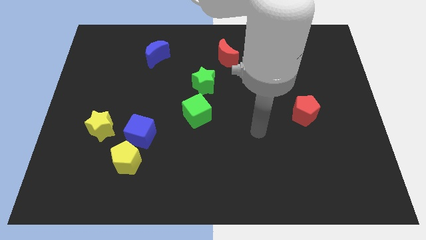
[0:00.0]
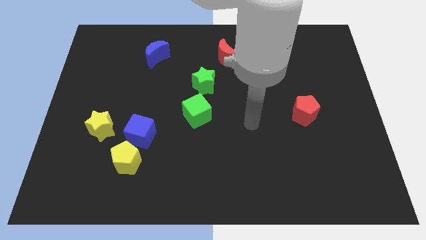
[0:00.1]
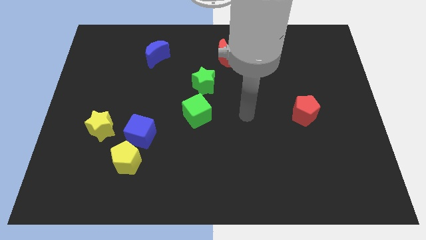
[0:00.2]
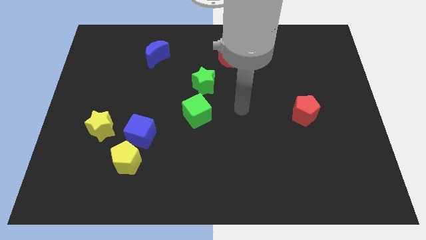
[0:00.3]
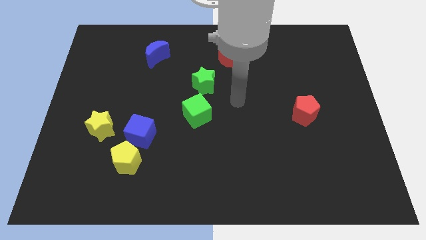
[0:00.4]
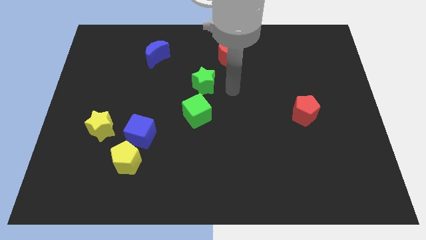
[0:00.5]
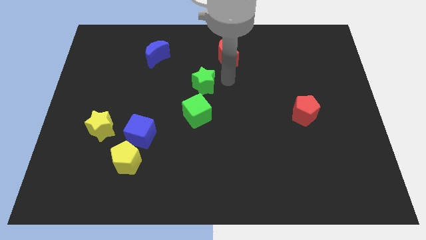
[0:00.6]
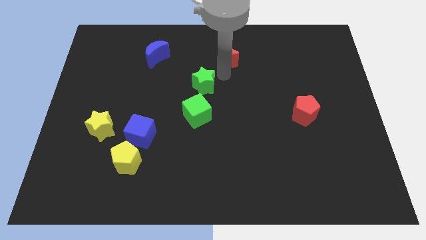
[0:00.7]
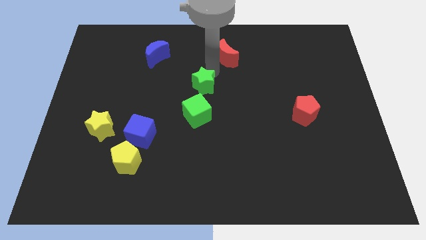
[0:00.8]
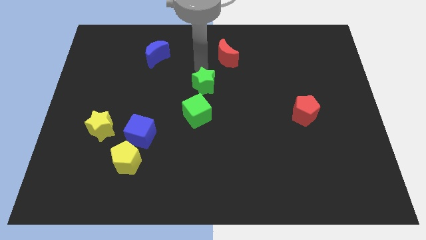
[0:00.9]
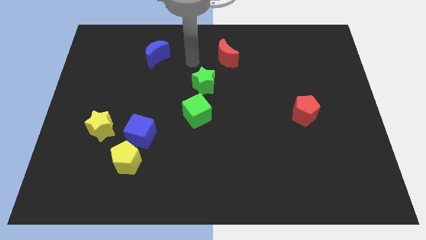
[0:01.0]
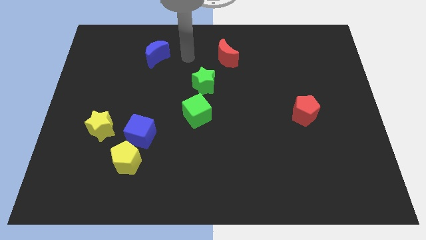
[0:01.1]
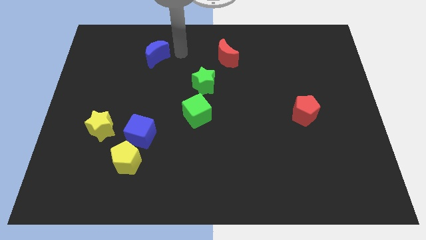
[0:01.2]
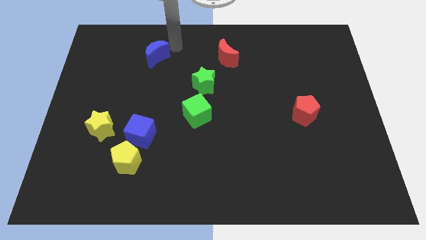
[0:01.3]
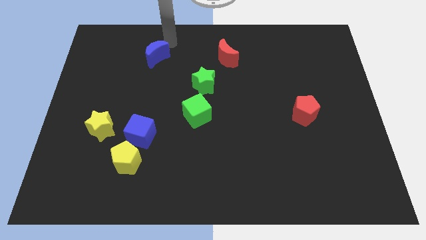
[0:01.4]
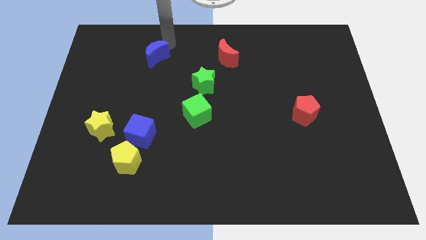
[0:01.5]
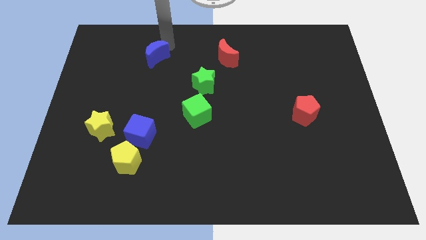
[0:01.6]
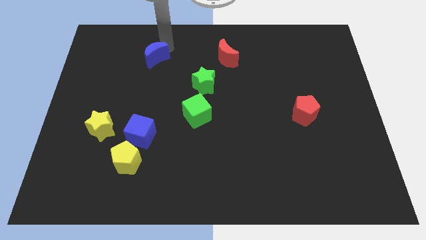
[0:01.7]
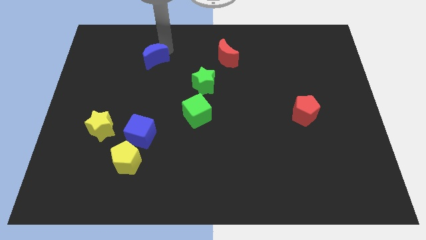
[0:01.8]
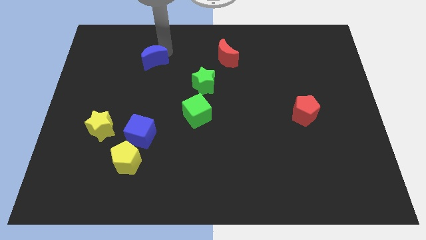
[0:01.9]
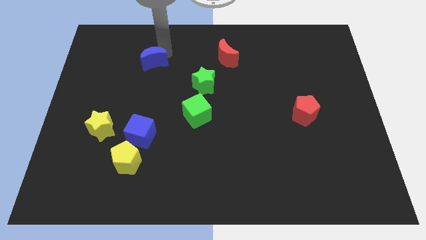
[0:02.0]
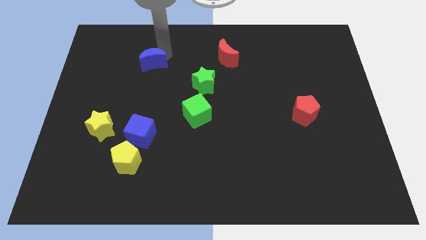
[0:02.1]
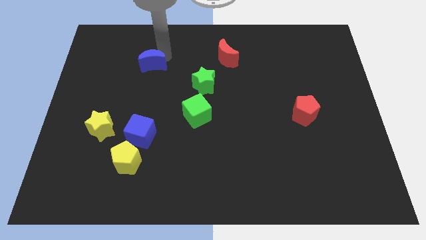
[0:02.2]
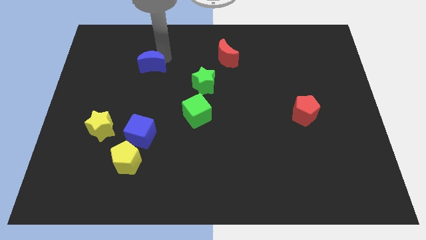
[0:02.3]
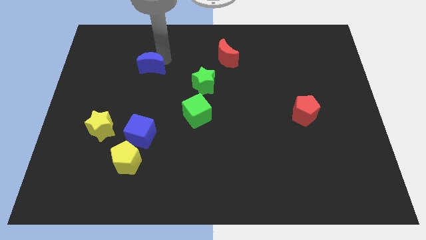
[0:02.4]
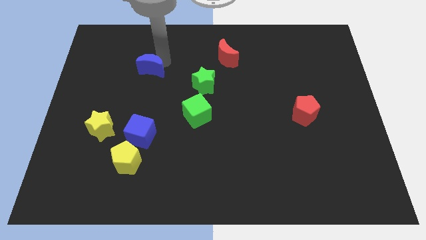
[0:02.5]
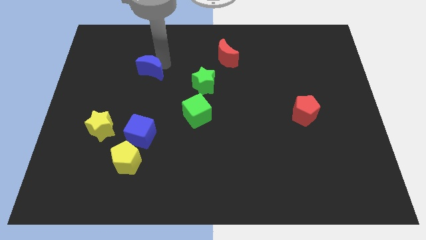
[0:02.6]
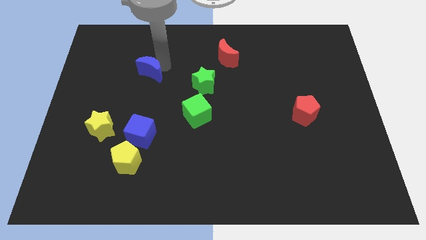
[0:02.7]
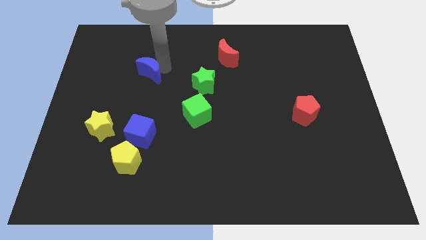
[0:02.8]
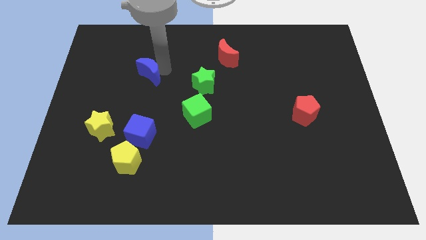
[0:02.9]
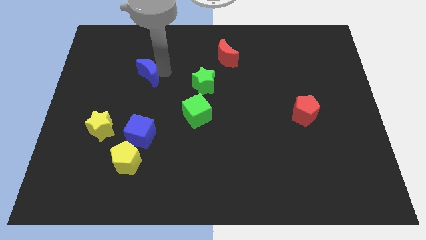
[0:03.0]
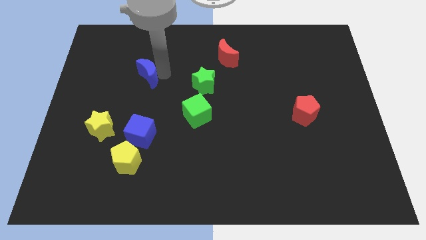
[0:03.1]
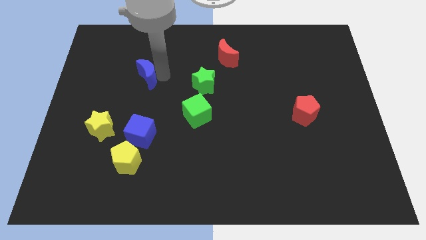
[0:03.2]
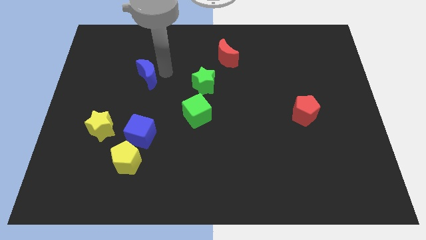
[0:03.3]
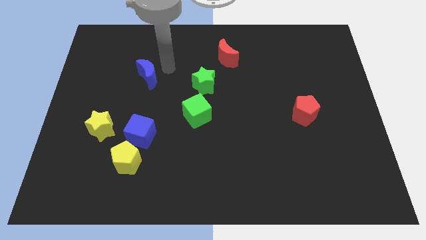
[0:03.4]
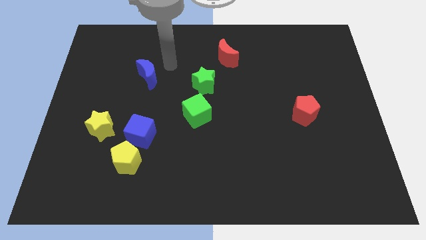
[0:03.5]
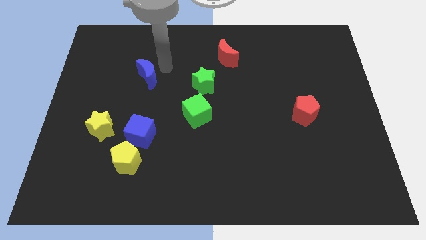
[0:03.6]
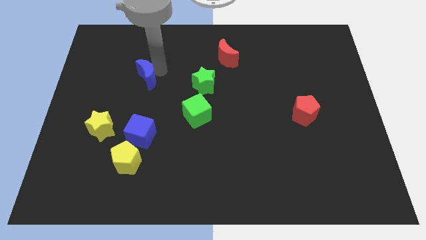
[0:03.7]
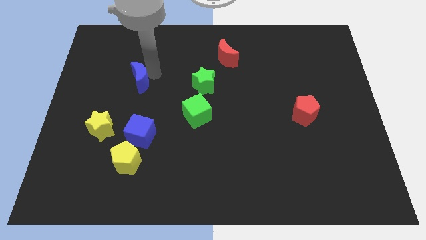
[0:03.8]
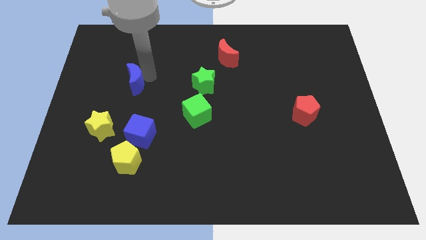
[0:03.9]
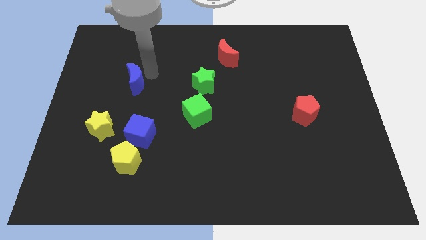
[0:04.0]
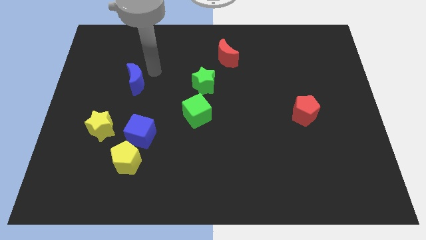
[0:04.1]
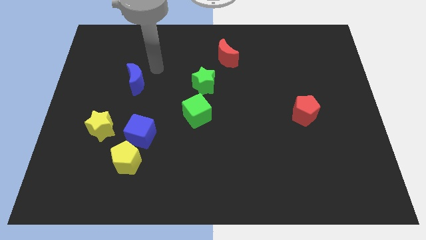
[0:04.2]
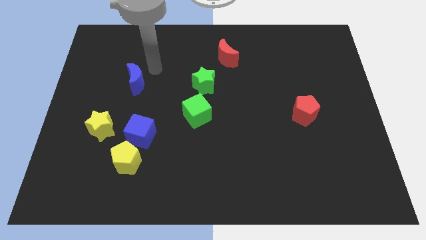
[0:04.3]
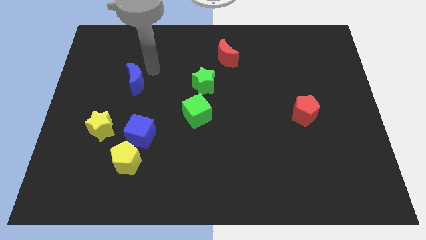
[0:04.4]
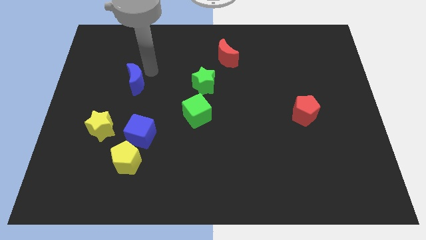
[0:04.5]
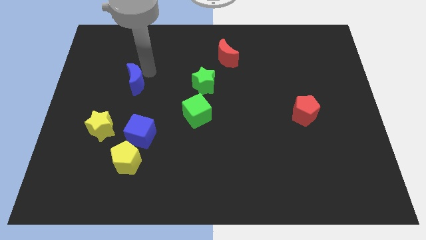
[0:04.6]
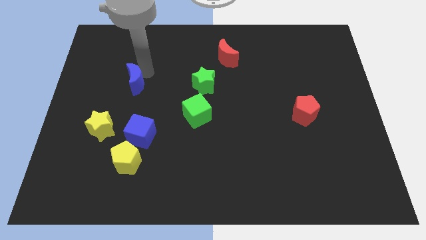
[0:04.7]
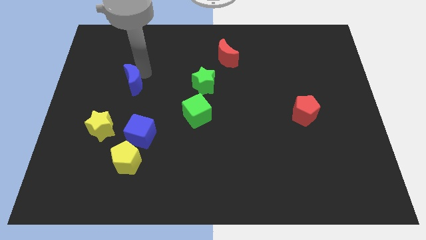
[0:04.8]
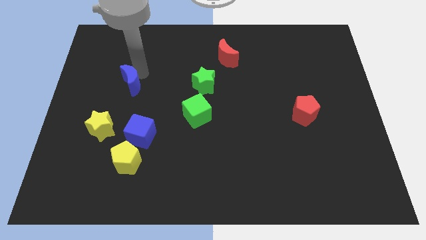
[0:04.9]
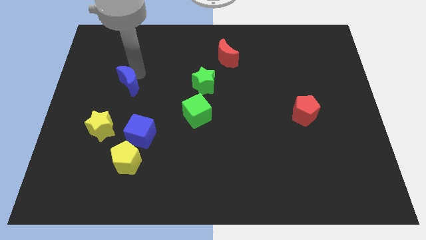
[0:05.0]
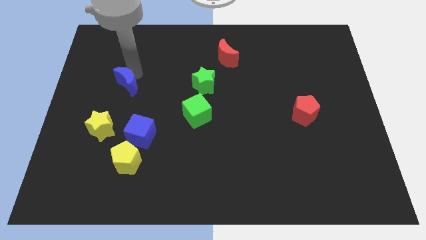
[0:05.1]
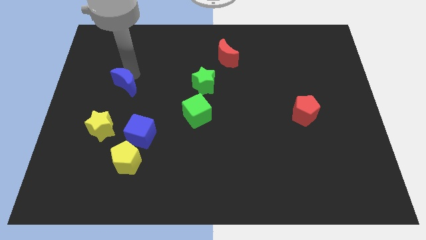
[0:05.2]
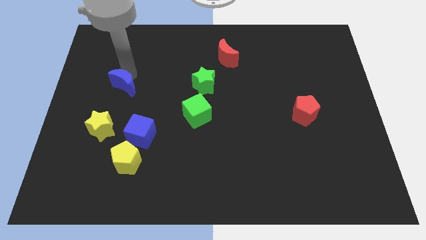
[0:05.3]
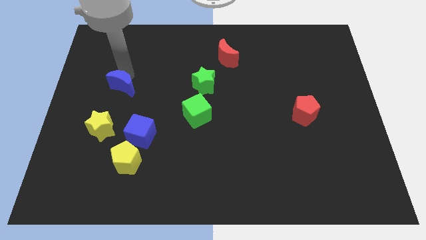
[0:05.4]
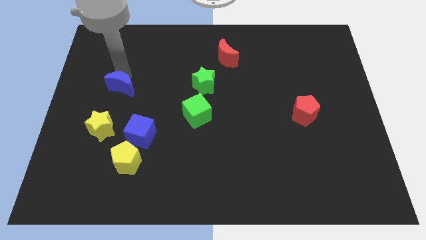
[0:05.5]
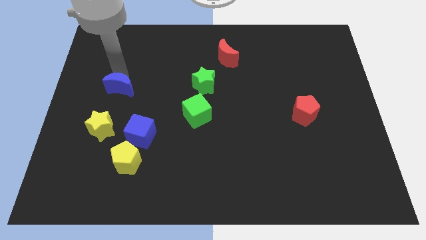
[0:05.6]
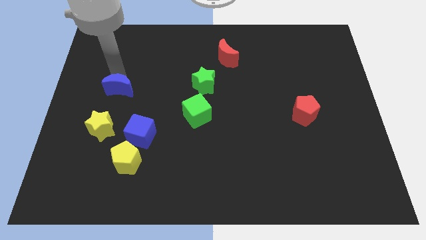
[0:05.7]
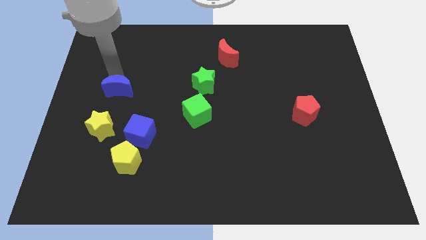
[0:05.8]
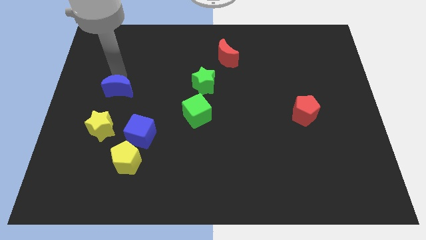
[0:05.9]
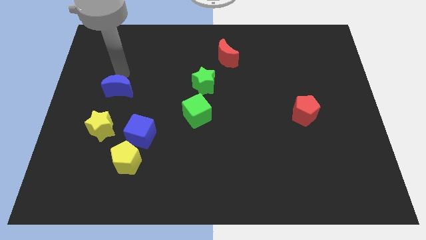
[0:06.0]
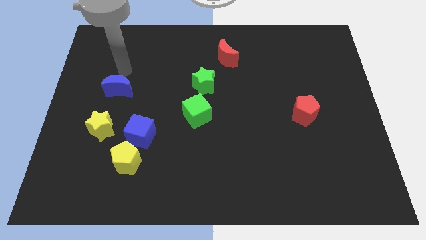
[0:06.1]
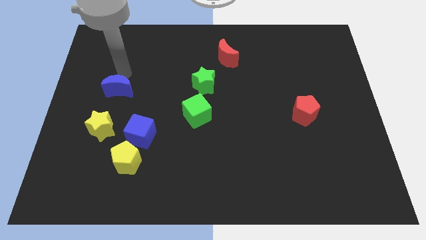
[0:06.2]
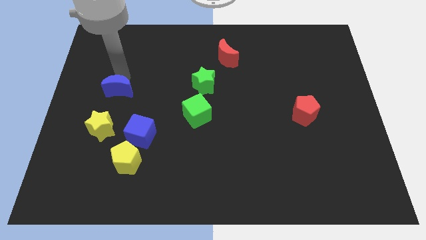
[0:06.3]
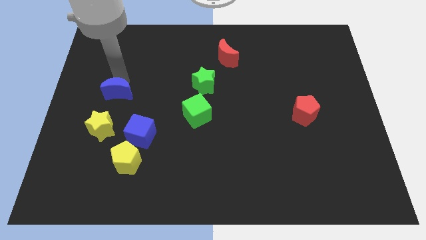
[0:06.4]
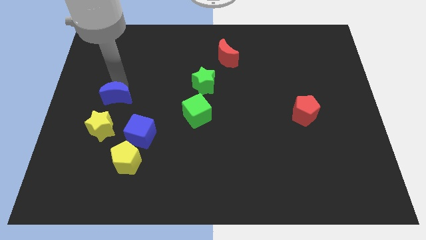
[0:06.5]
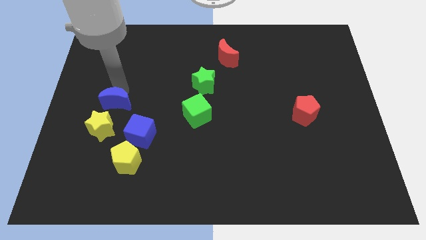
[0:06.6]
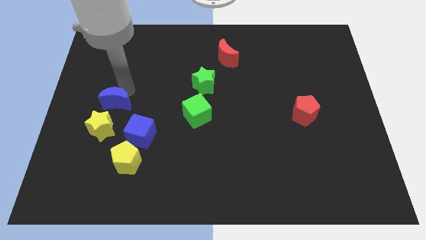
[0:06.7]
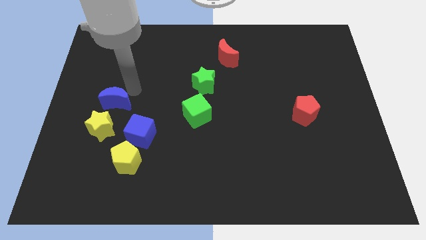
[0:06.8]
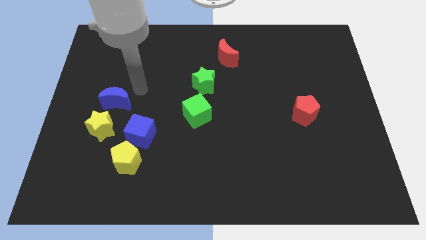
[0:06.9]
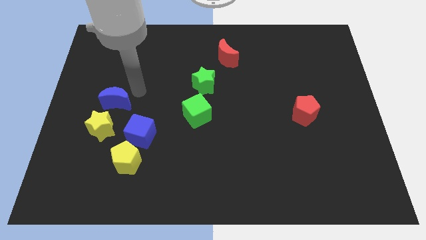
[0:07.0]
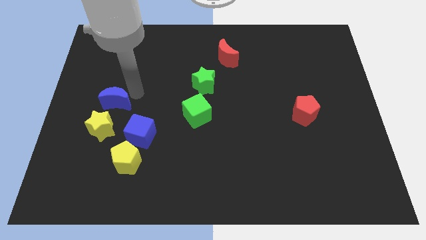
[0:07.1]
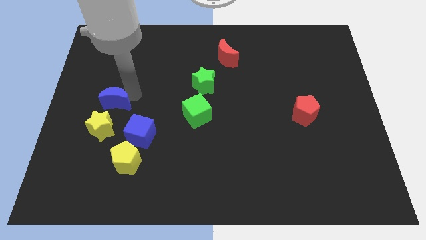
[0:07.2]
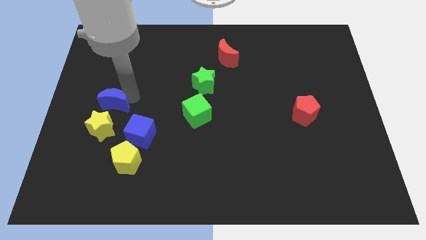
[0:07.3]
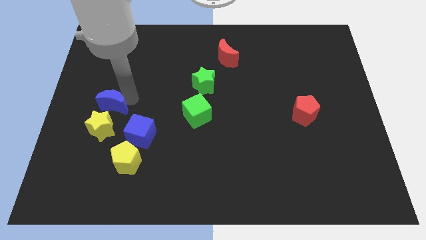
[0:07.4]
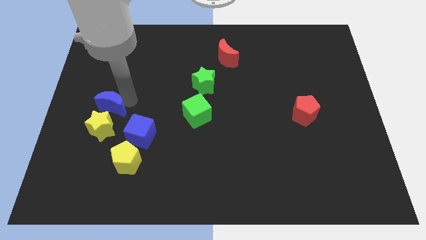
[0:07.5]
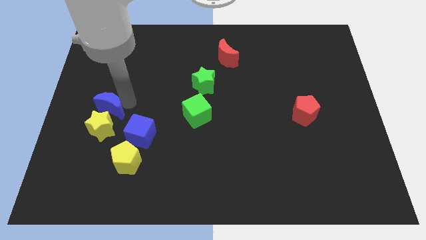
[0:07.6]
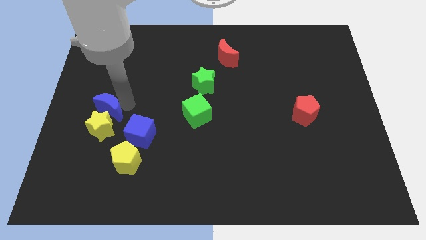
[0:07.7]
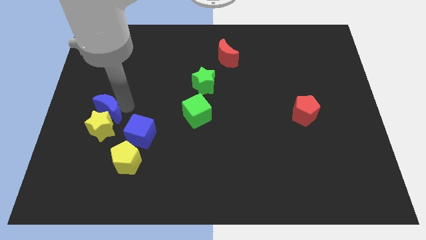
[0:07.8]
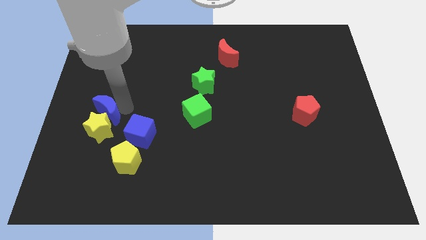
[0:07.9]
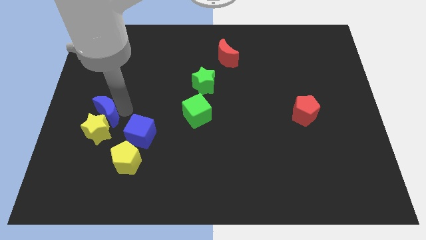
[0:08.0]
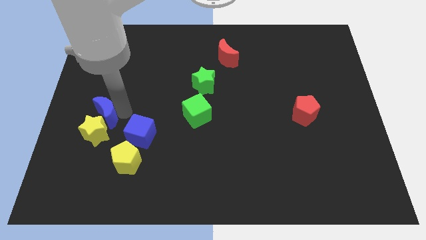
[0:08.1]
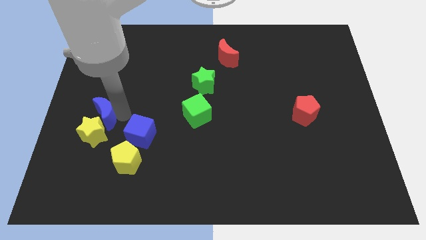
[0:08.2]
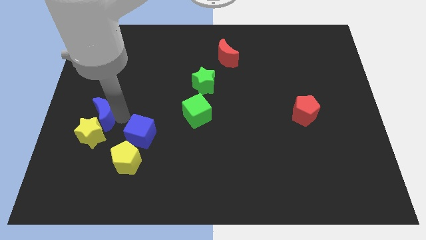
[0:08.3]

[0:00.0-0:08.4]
push the blue moon just left of the blue cube
